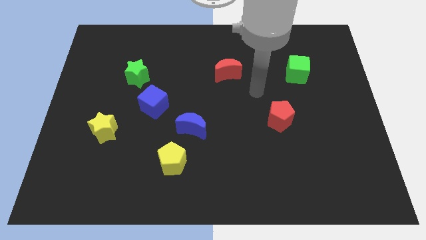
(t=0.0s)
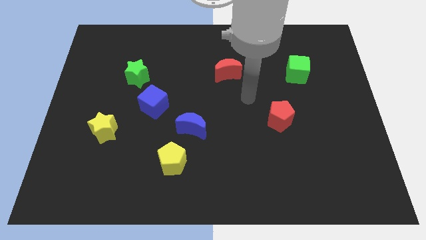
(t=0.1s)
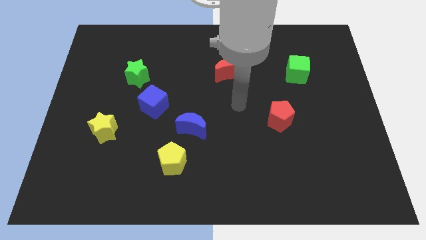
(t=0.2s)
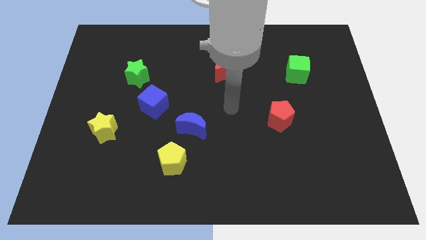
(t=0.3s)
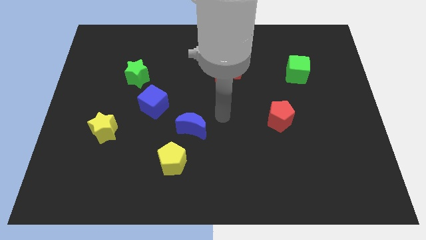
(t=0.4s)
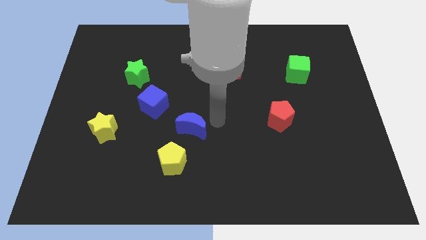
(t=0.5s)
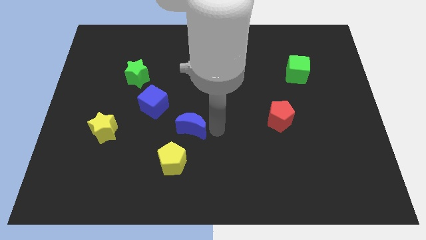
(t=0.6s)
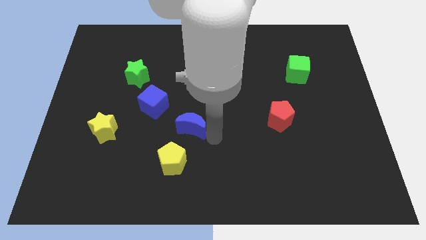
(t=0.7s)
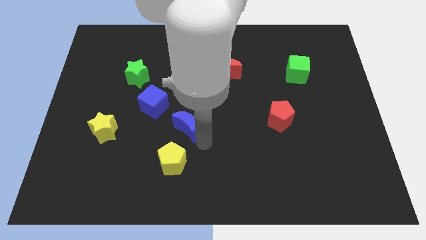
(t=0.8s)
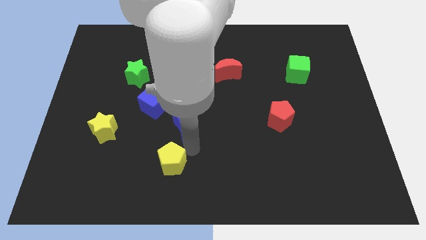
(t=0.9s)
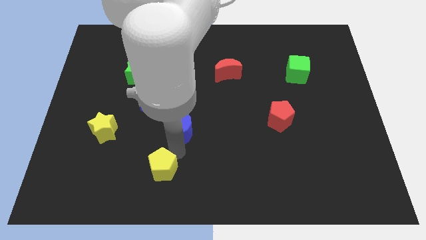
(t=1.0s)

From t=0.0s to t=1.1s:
separate the blue moon from the yellow pentagon

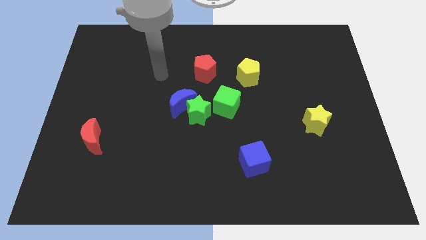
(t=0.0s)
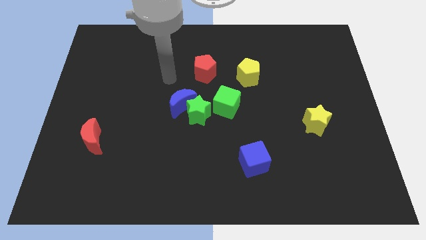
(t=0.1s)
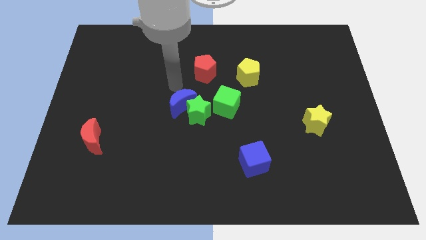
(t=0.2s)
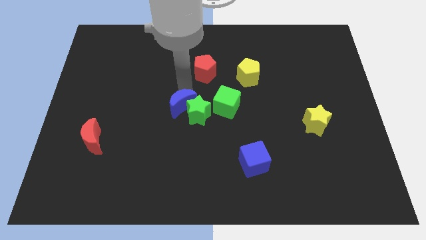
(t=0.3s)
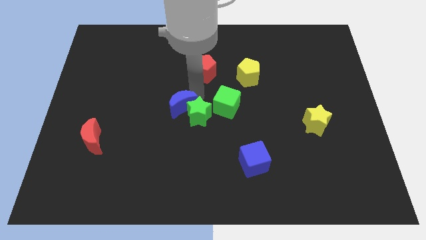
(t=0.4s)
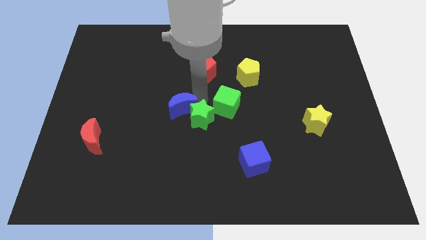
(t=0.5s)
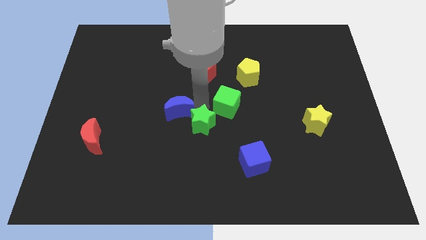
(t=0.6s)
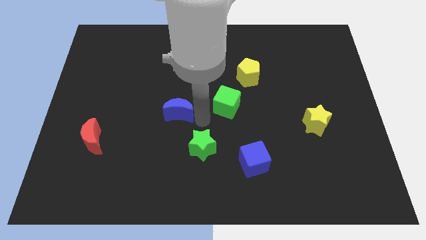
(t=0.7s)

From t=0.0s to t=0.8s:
move the blue moon away from the green star

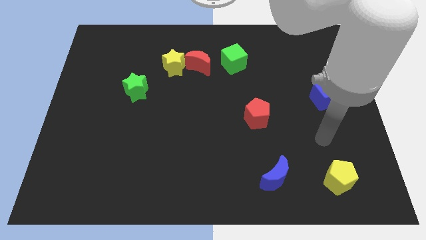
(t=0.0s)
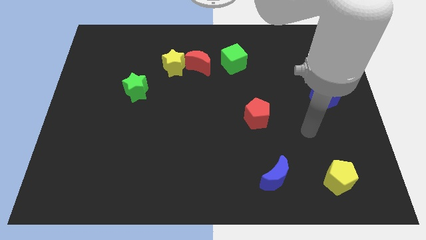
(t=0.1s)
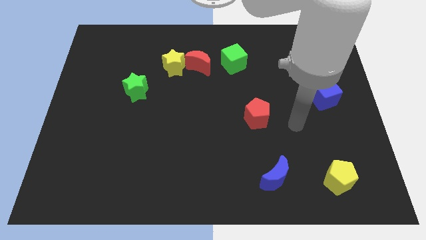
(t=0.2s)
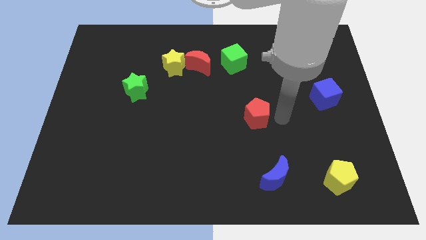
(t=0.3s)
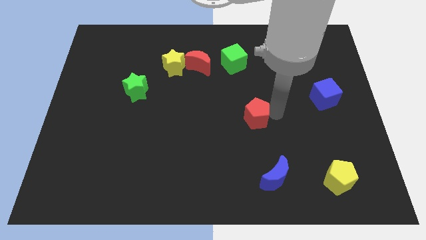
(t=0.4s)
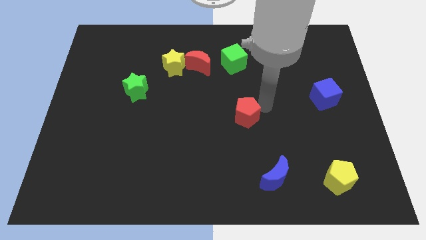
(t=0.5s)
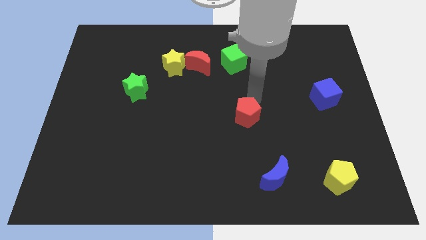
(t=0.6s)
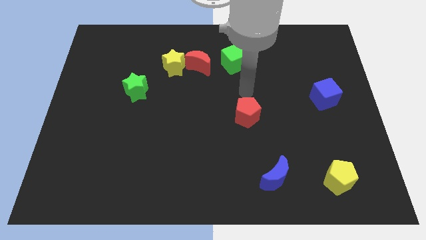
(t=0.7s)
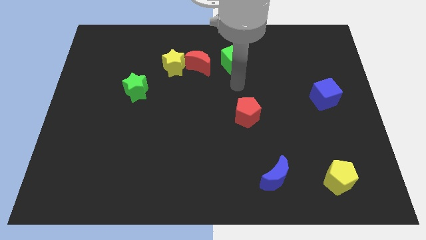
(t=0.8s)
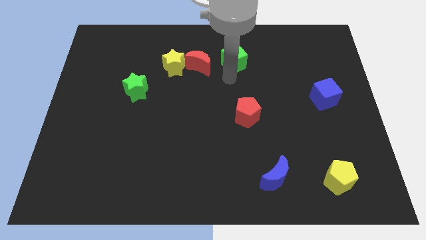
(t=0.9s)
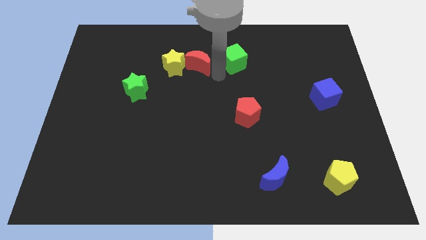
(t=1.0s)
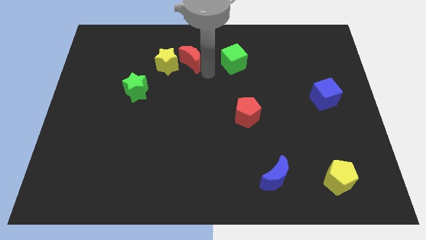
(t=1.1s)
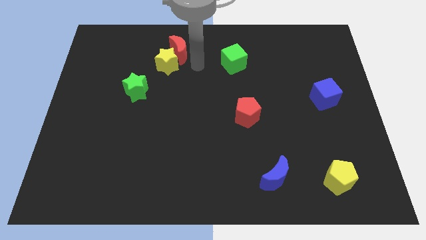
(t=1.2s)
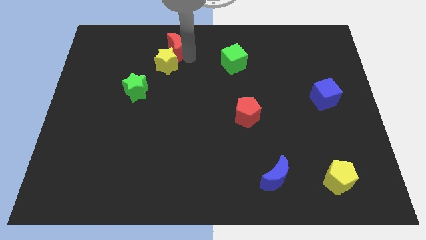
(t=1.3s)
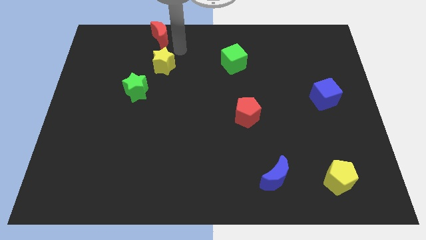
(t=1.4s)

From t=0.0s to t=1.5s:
pull the yellow star apart from the red moon

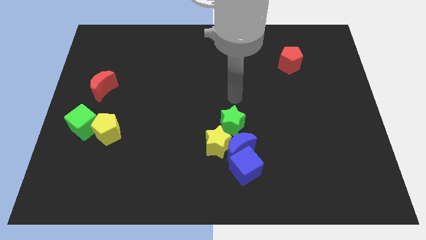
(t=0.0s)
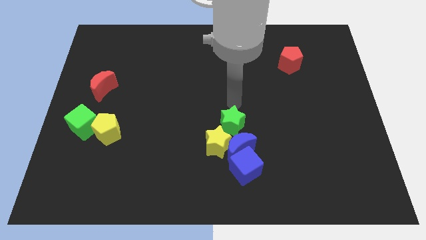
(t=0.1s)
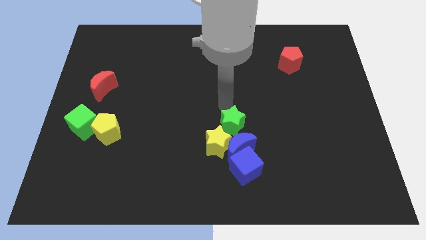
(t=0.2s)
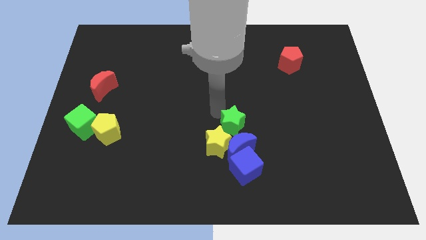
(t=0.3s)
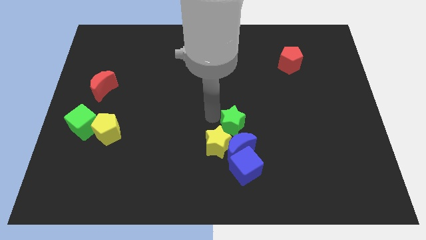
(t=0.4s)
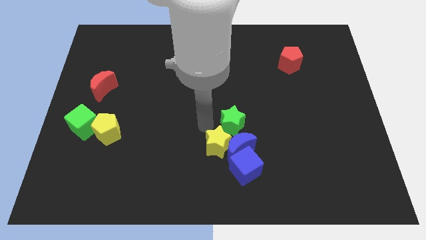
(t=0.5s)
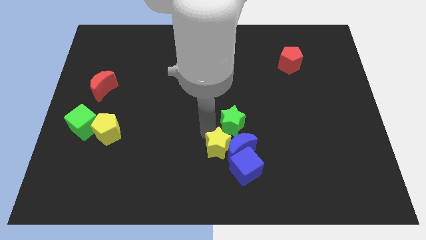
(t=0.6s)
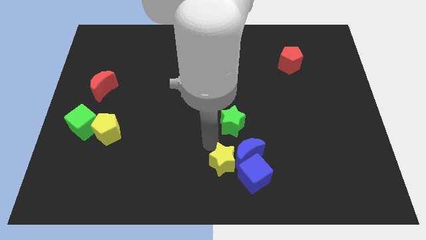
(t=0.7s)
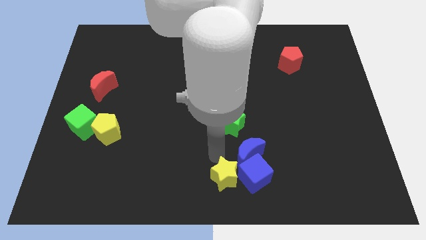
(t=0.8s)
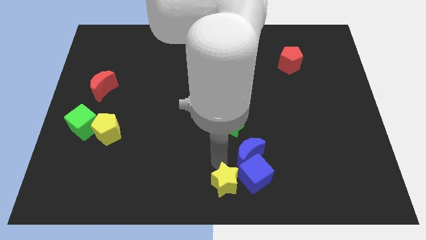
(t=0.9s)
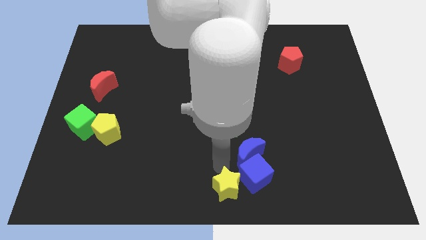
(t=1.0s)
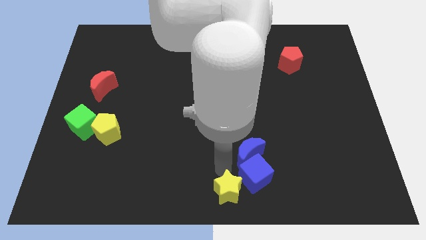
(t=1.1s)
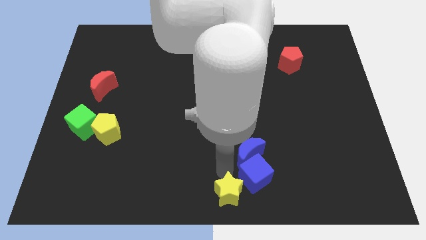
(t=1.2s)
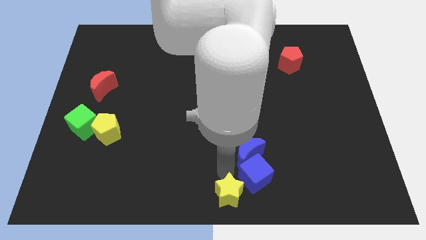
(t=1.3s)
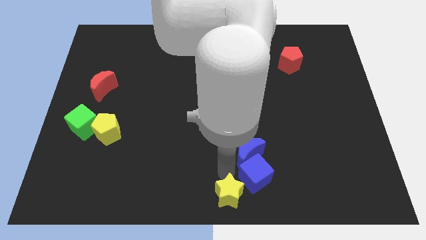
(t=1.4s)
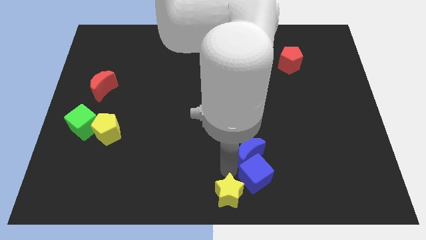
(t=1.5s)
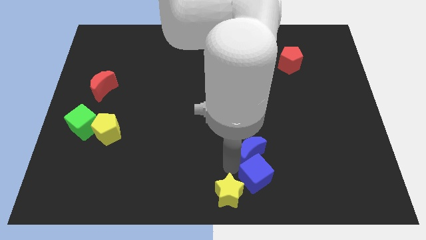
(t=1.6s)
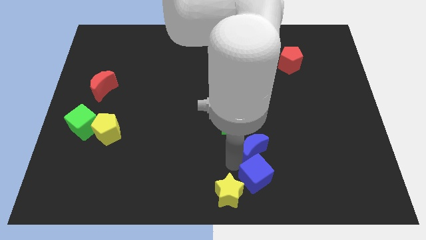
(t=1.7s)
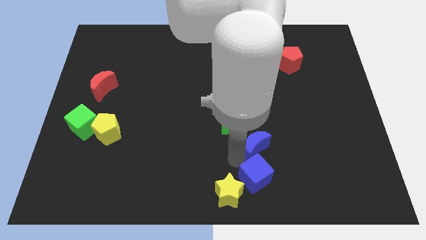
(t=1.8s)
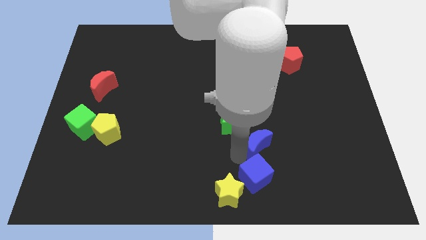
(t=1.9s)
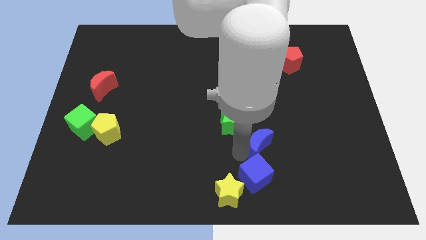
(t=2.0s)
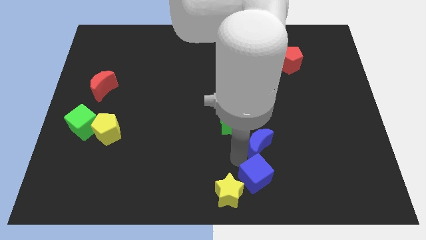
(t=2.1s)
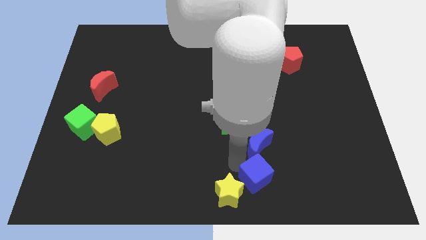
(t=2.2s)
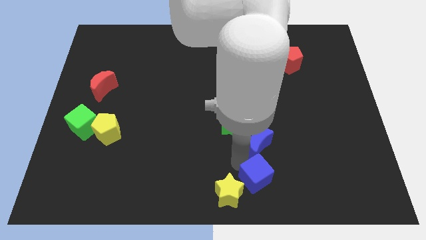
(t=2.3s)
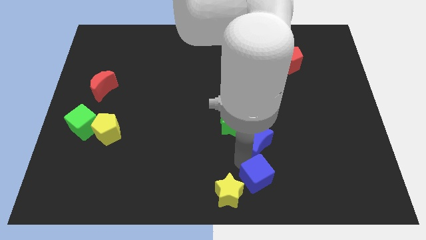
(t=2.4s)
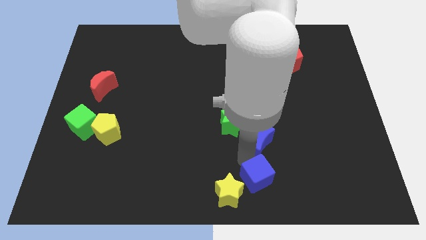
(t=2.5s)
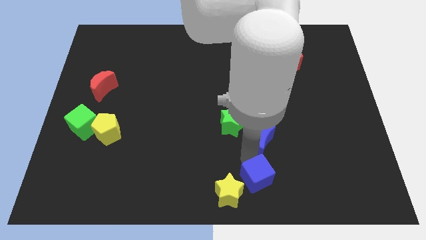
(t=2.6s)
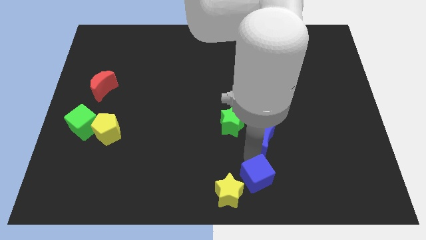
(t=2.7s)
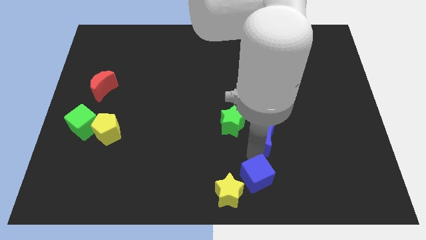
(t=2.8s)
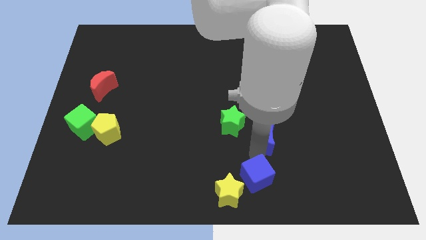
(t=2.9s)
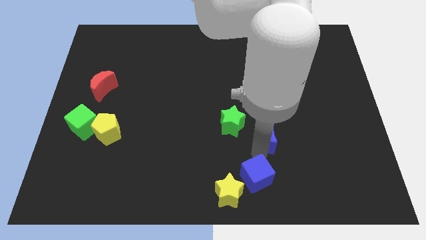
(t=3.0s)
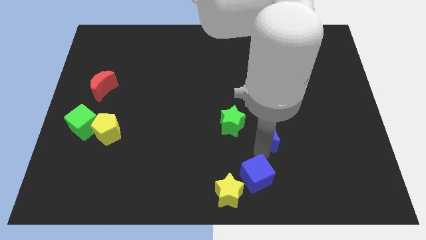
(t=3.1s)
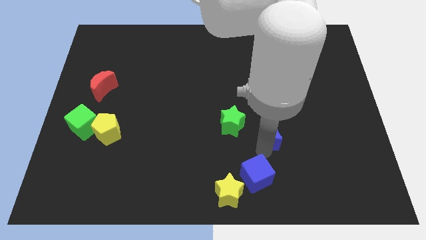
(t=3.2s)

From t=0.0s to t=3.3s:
separate the blue moon from the group

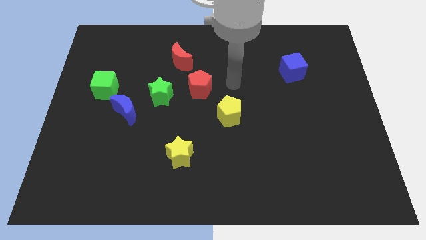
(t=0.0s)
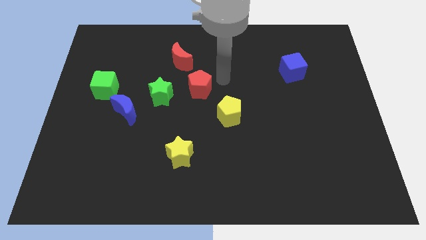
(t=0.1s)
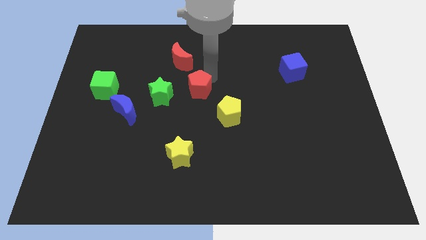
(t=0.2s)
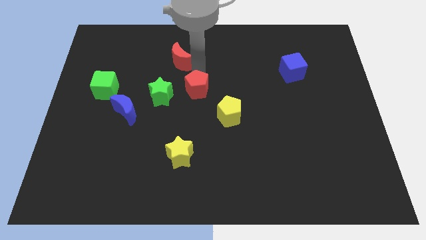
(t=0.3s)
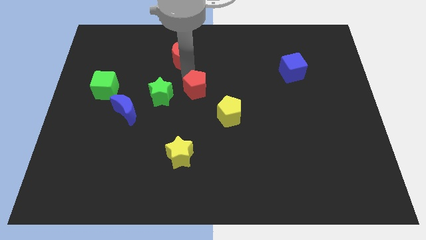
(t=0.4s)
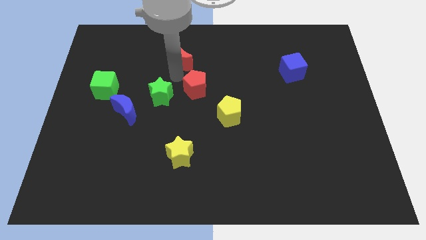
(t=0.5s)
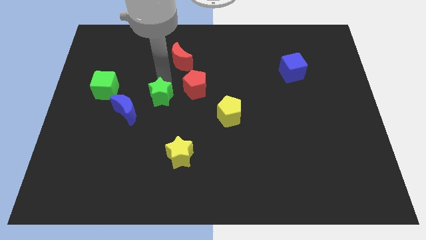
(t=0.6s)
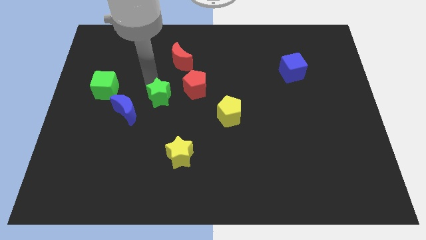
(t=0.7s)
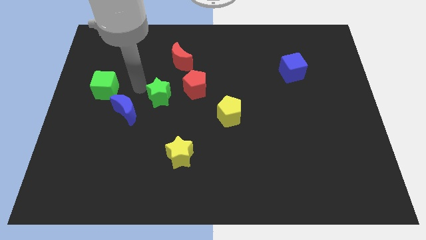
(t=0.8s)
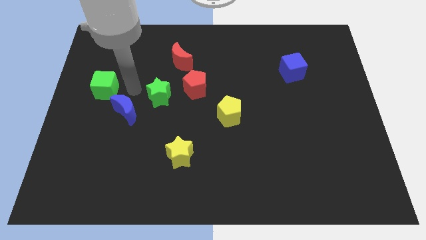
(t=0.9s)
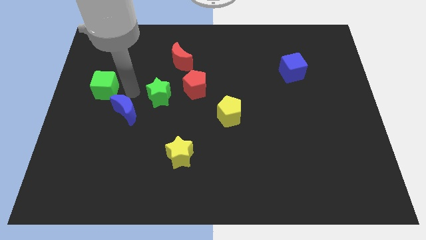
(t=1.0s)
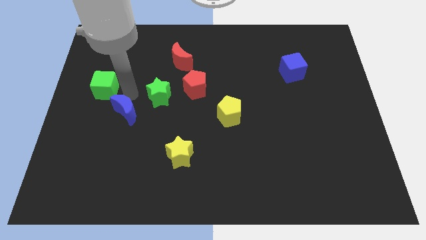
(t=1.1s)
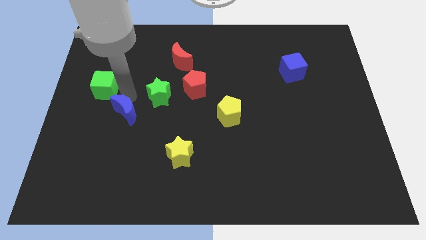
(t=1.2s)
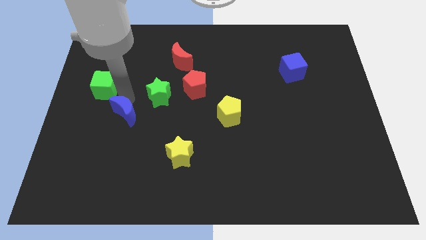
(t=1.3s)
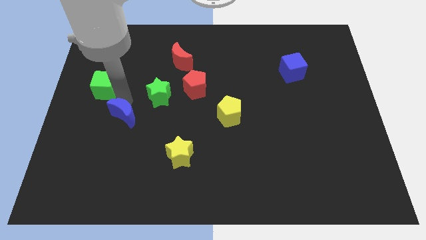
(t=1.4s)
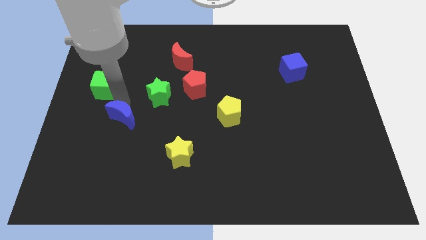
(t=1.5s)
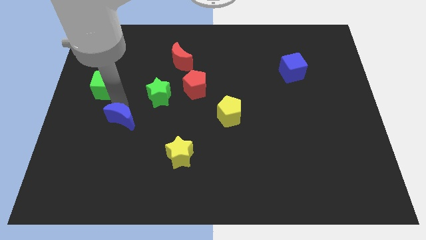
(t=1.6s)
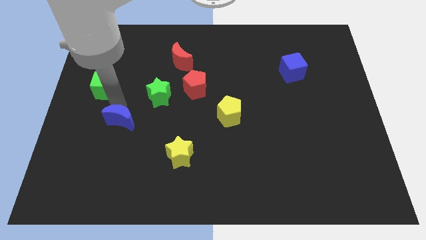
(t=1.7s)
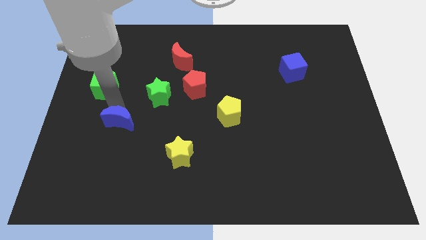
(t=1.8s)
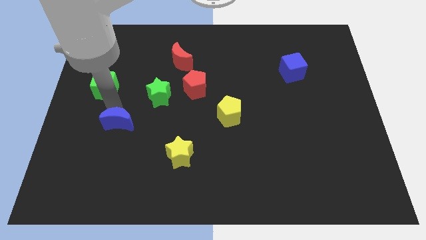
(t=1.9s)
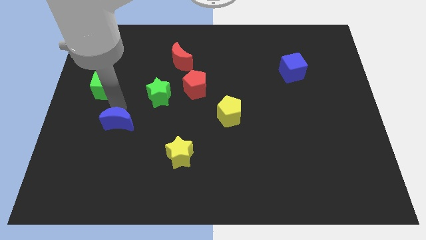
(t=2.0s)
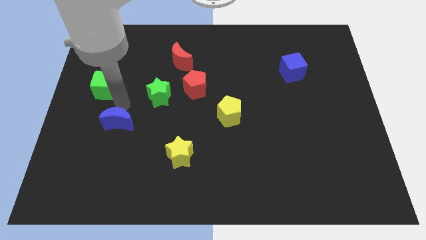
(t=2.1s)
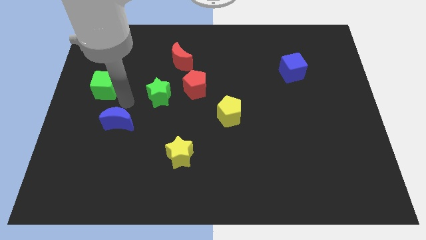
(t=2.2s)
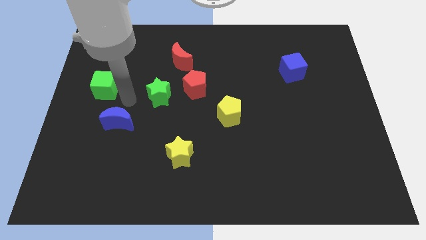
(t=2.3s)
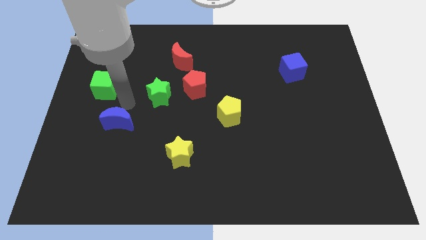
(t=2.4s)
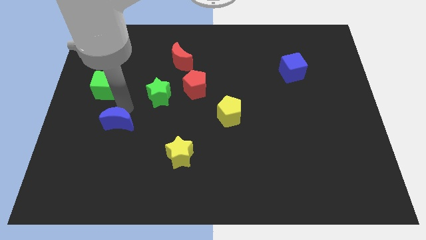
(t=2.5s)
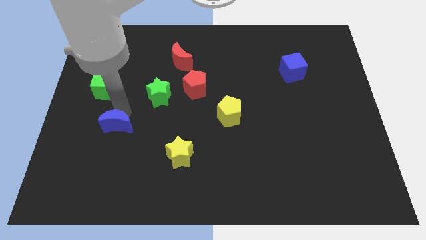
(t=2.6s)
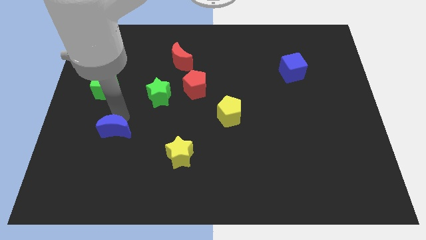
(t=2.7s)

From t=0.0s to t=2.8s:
separate the blue moon from the green star and green cube
